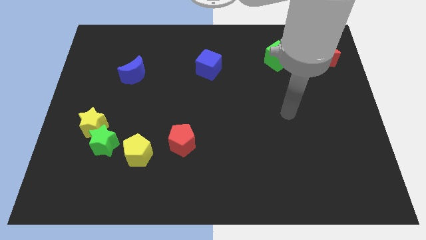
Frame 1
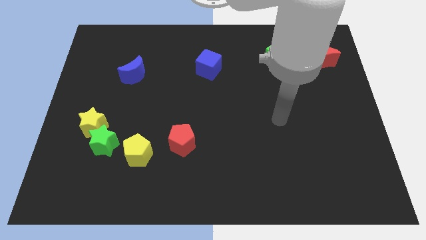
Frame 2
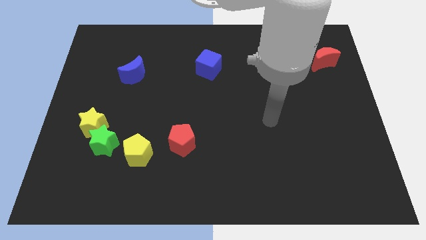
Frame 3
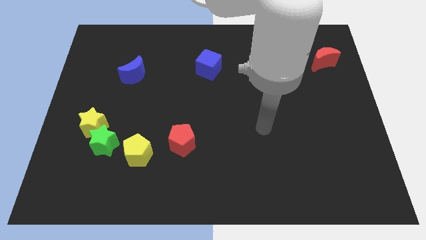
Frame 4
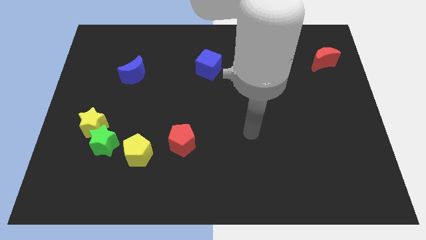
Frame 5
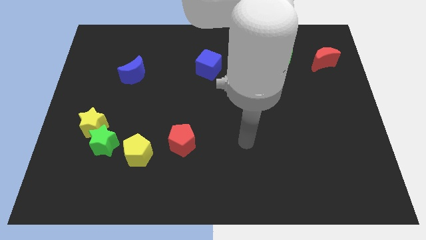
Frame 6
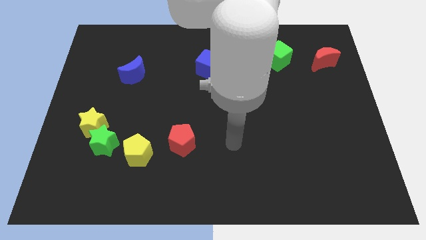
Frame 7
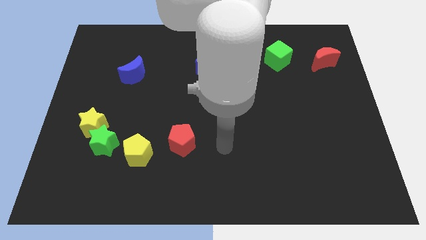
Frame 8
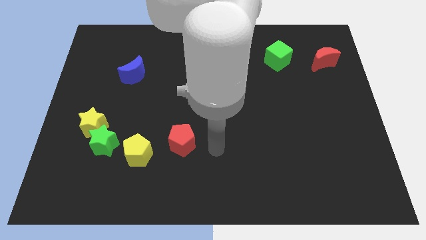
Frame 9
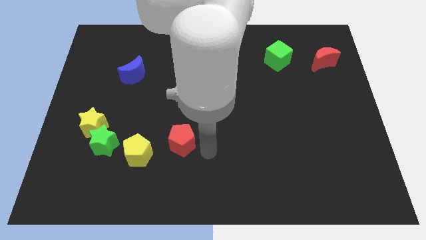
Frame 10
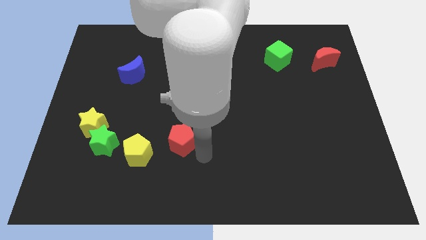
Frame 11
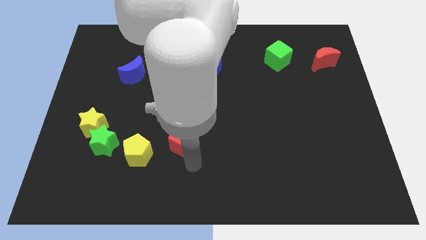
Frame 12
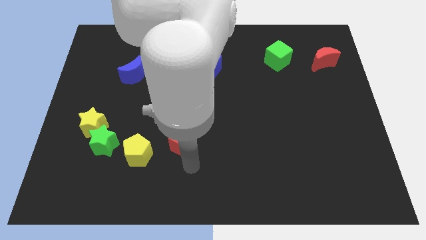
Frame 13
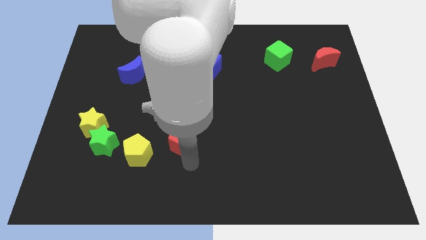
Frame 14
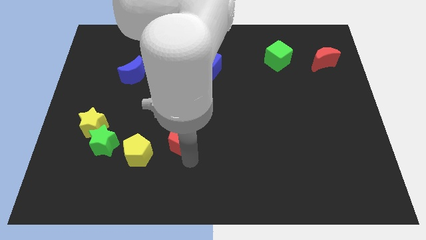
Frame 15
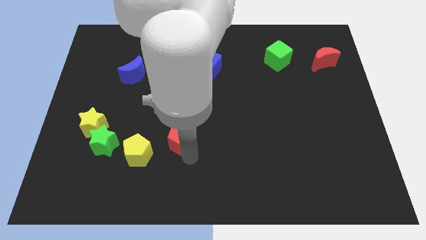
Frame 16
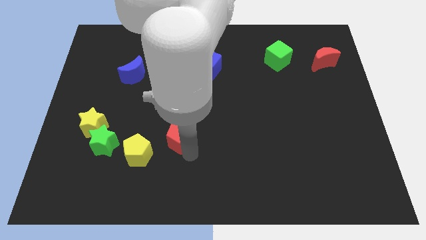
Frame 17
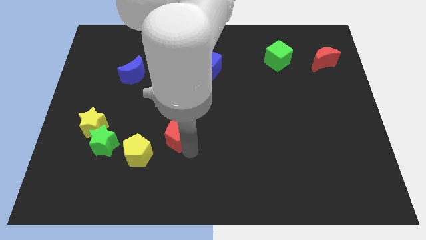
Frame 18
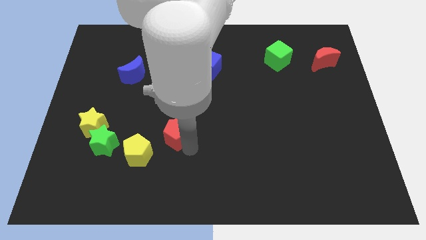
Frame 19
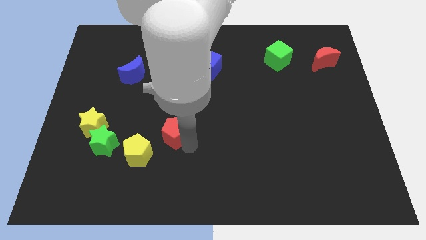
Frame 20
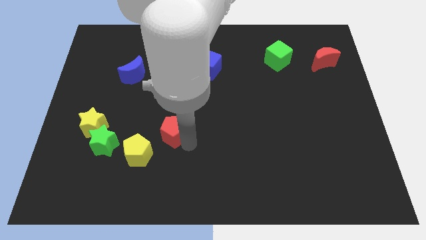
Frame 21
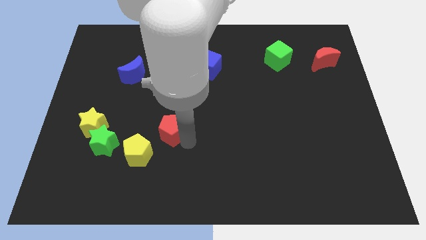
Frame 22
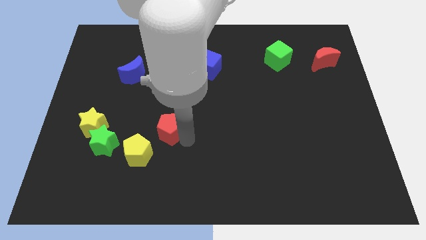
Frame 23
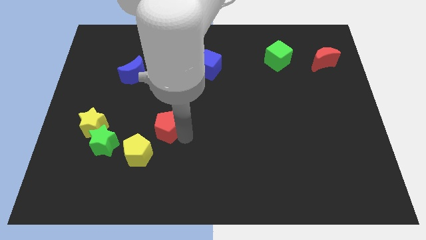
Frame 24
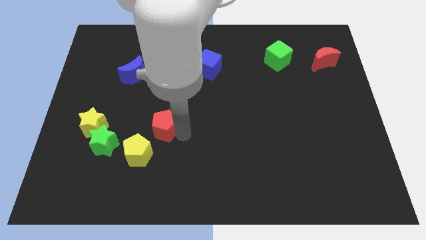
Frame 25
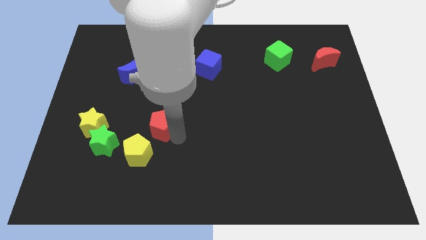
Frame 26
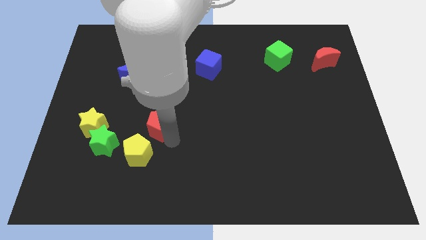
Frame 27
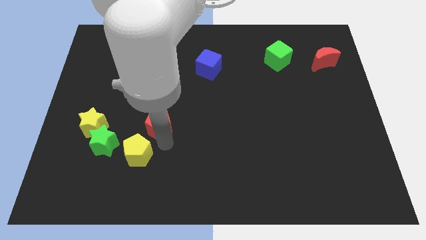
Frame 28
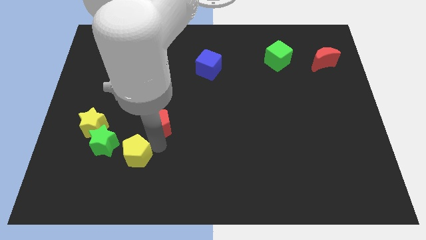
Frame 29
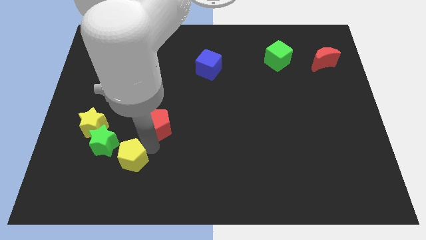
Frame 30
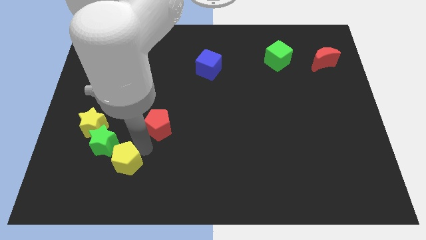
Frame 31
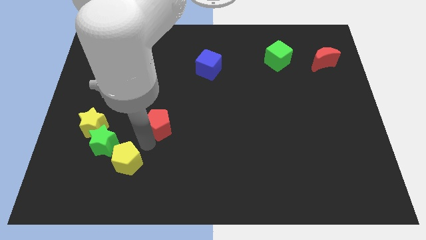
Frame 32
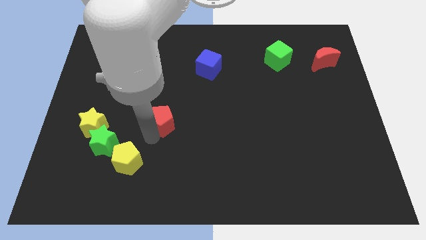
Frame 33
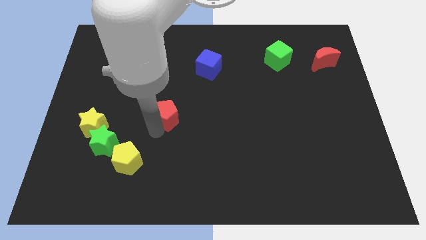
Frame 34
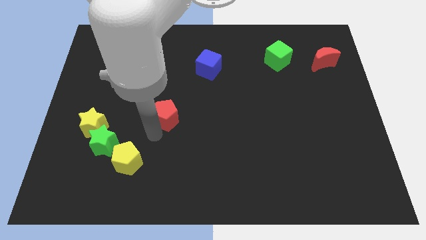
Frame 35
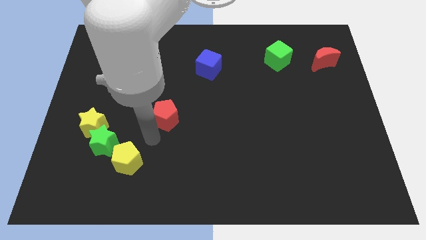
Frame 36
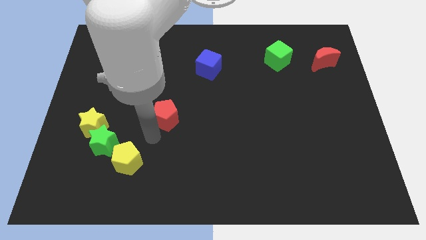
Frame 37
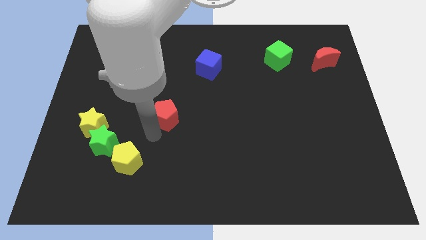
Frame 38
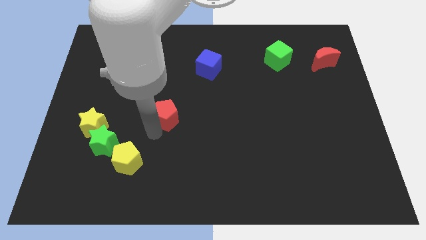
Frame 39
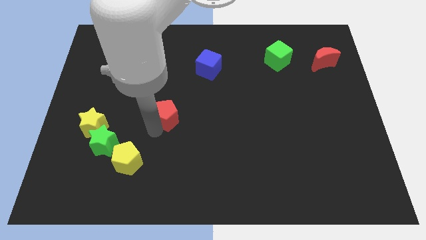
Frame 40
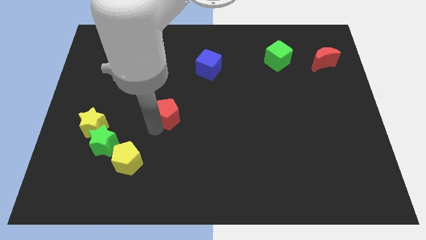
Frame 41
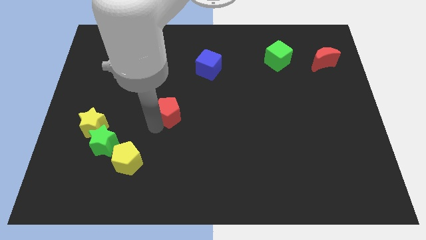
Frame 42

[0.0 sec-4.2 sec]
slightly push the red pentagon upwards

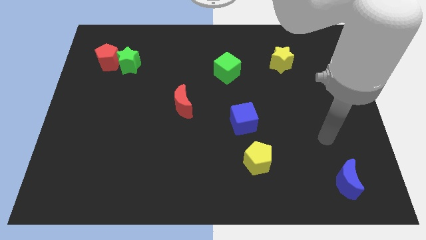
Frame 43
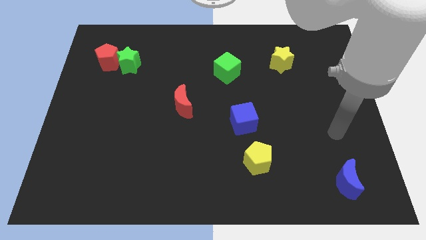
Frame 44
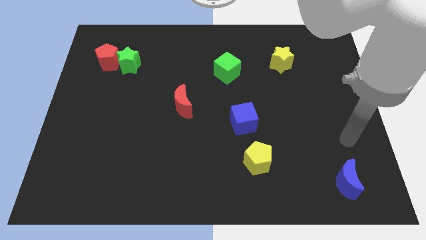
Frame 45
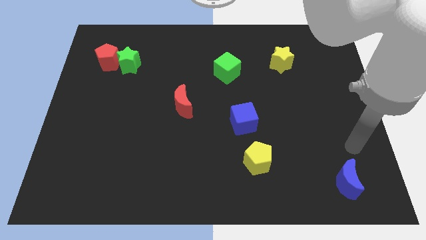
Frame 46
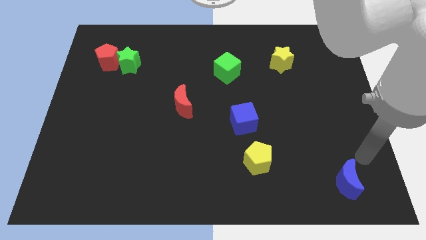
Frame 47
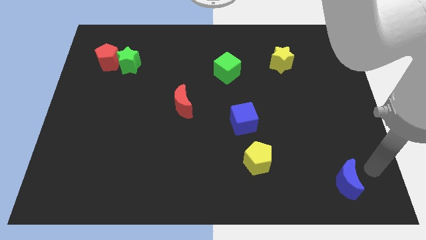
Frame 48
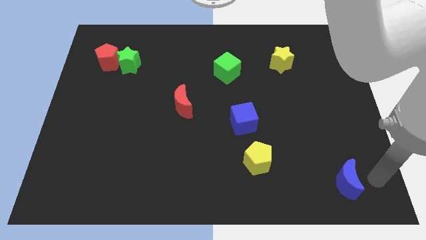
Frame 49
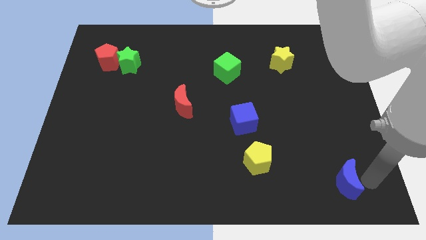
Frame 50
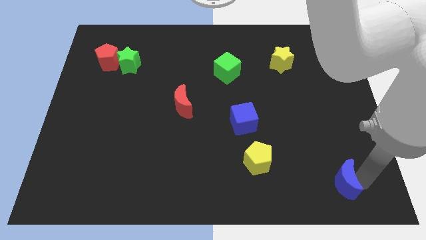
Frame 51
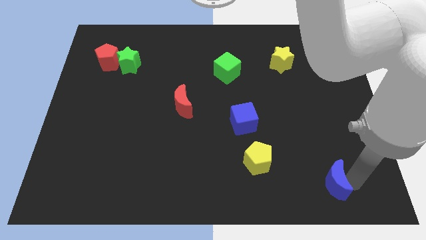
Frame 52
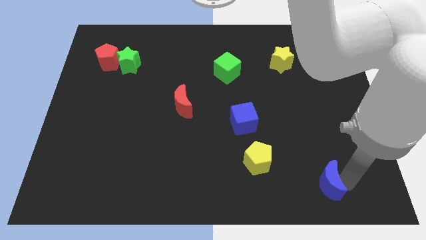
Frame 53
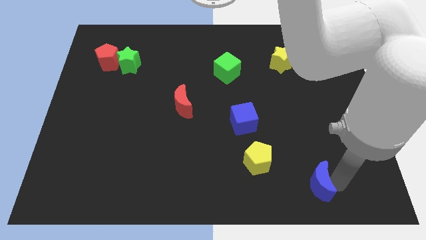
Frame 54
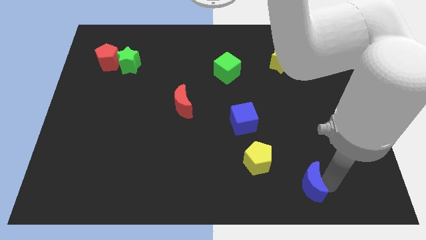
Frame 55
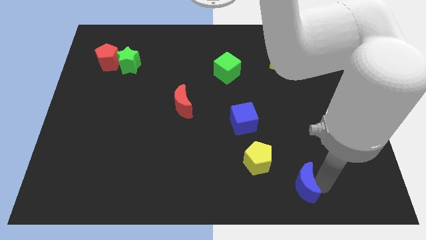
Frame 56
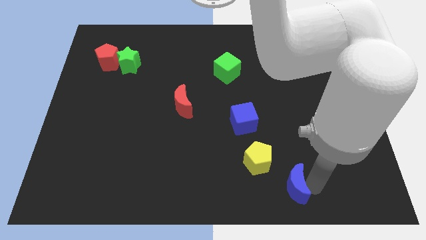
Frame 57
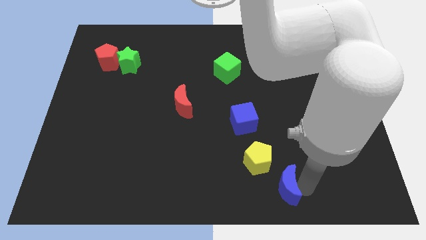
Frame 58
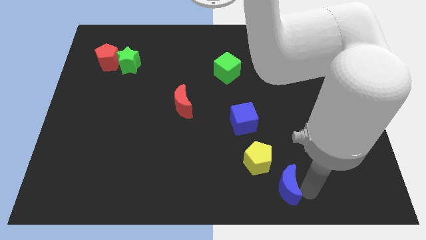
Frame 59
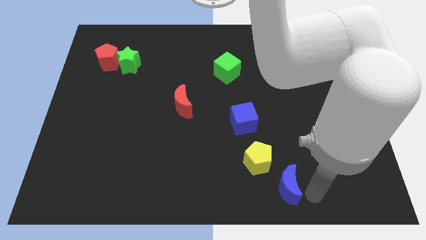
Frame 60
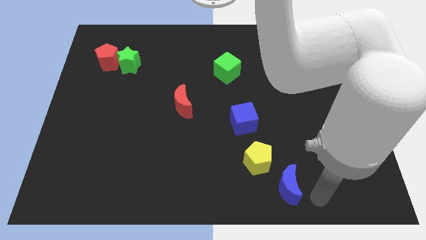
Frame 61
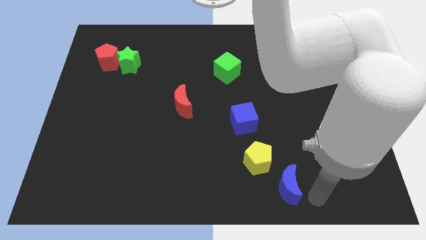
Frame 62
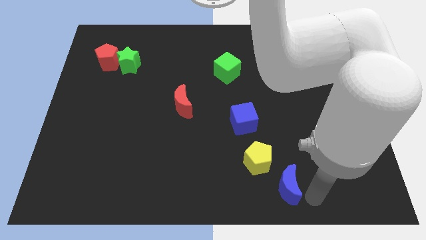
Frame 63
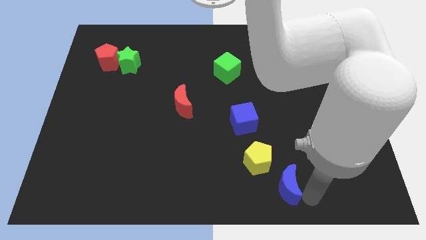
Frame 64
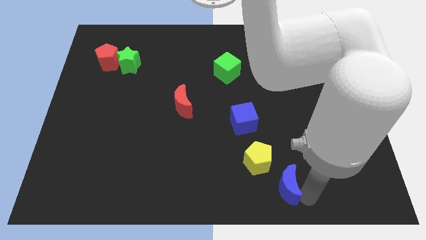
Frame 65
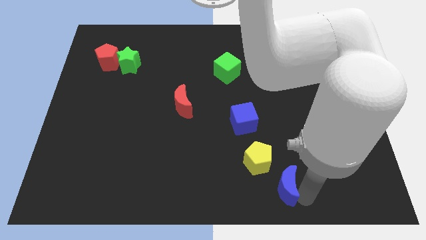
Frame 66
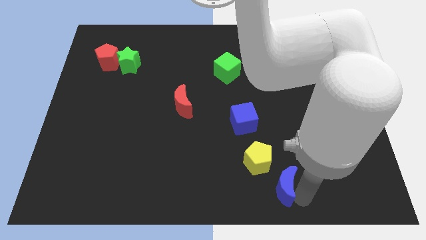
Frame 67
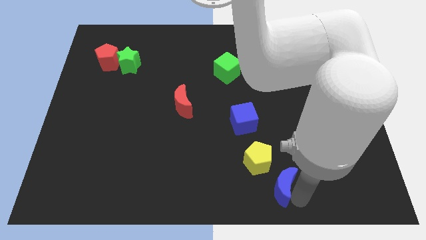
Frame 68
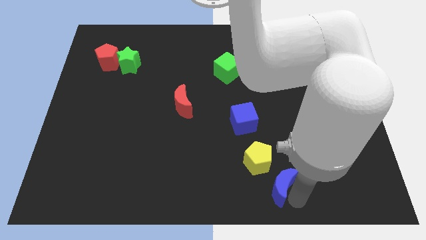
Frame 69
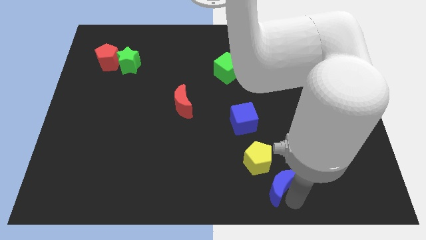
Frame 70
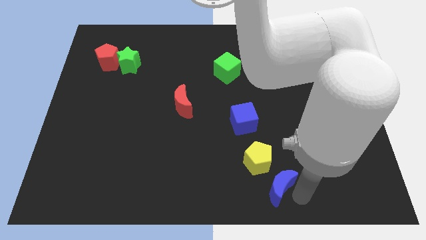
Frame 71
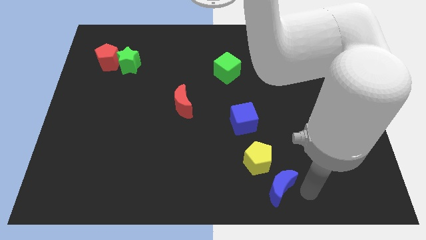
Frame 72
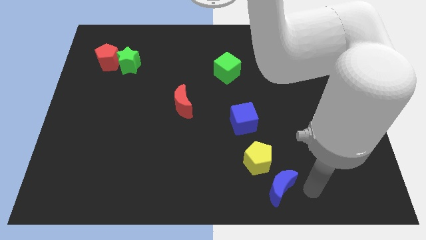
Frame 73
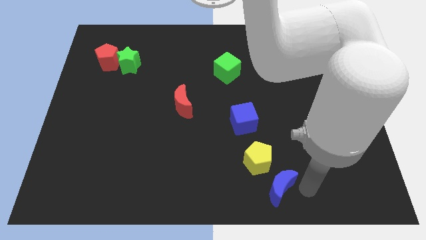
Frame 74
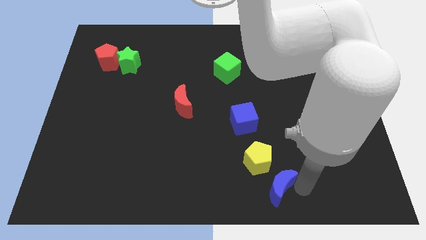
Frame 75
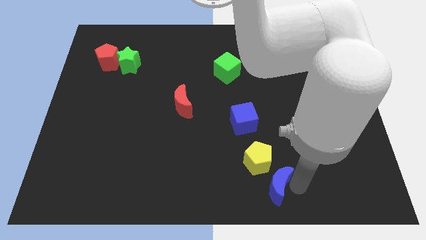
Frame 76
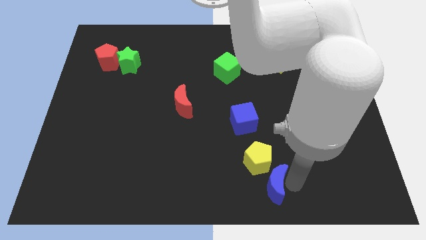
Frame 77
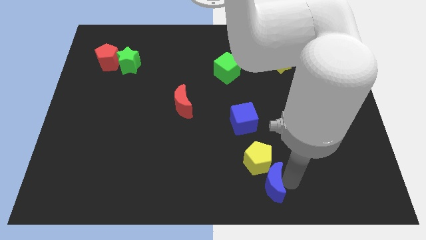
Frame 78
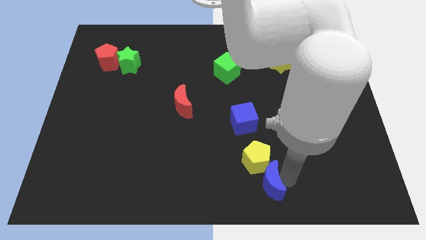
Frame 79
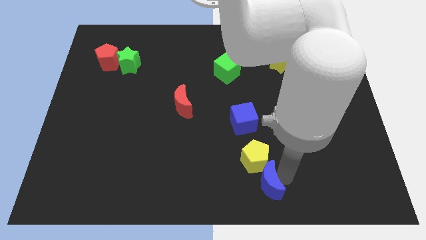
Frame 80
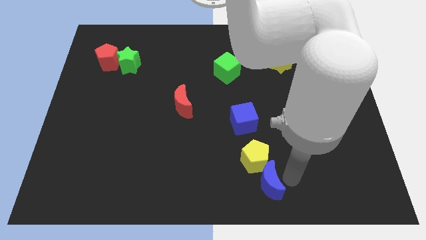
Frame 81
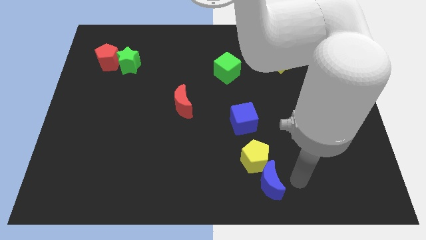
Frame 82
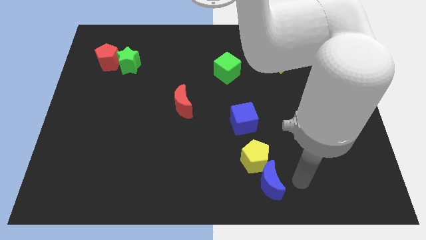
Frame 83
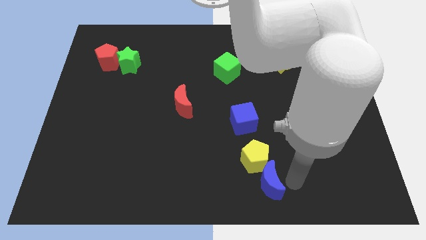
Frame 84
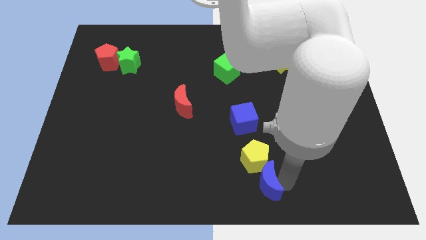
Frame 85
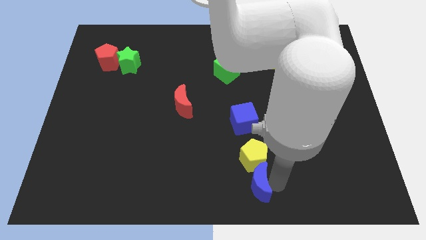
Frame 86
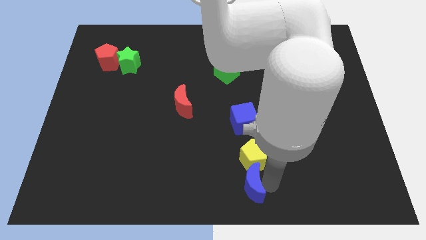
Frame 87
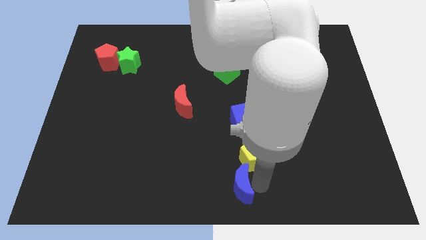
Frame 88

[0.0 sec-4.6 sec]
move the blue moon left
